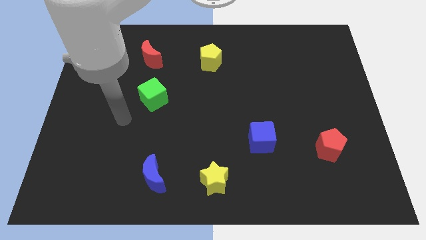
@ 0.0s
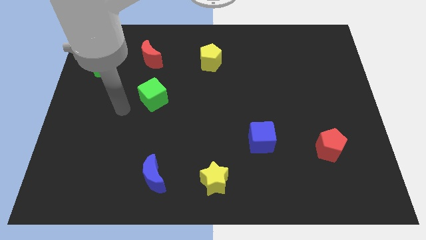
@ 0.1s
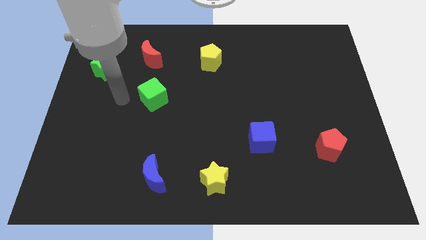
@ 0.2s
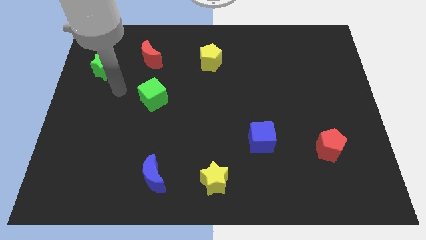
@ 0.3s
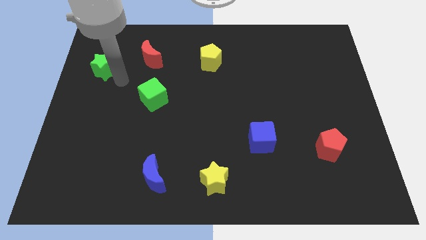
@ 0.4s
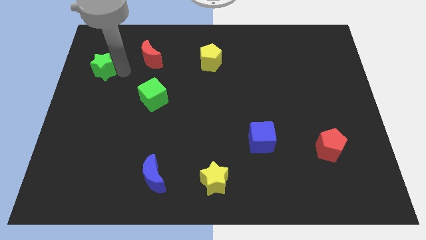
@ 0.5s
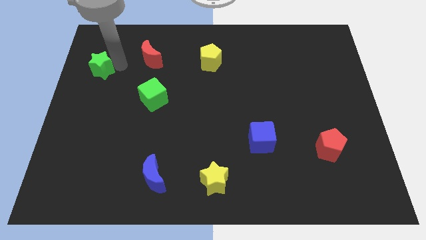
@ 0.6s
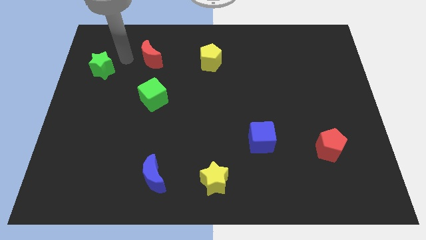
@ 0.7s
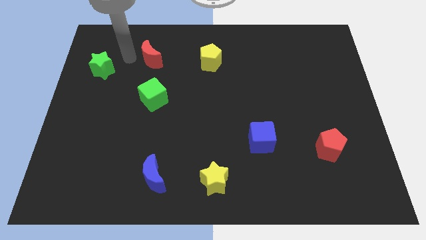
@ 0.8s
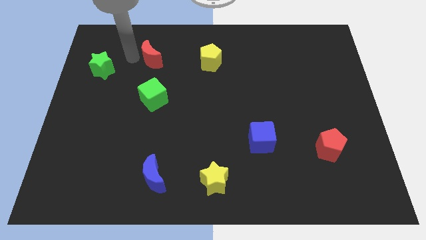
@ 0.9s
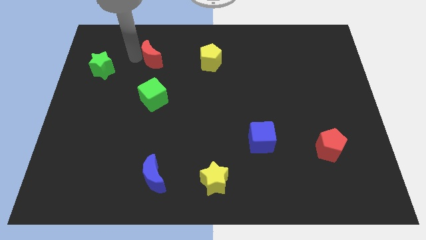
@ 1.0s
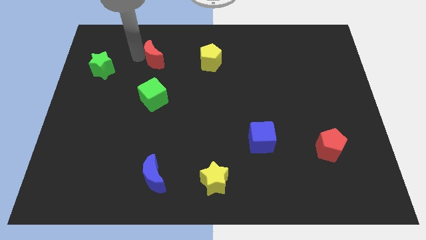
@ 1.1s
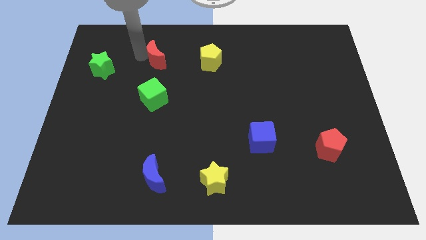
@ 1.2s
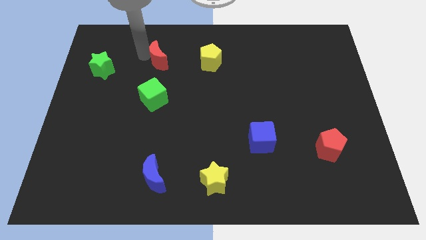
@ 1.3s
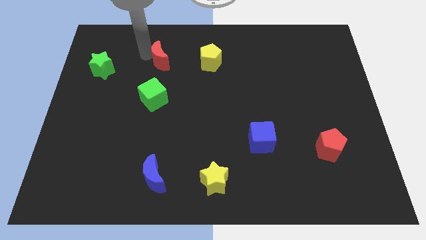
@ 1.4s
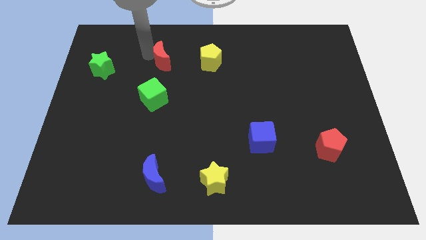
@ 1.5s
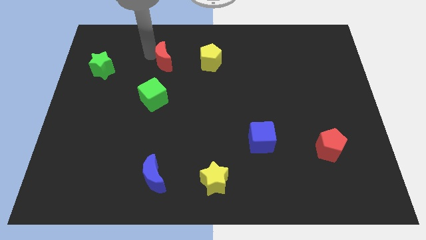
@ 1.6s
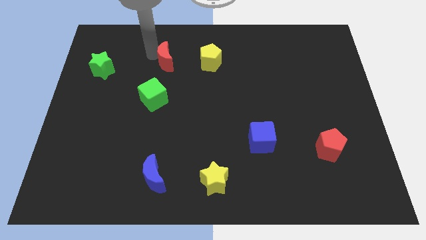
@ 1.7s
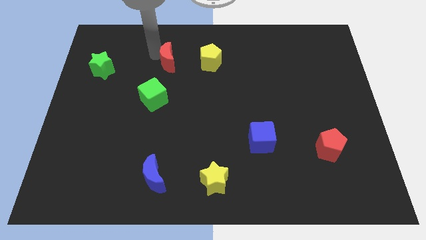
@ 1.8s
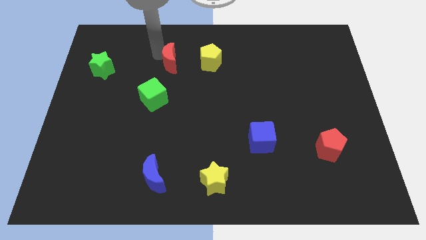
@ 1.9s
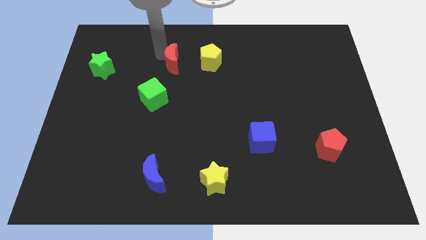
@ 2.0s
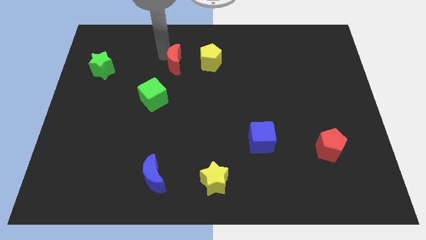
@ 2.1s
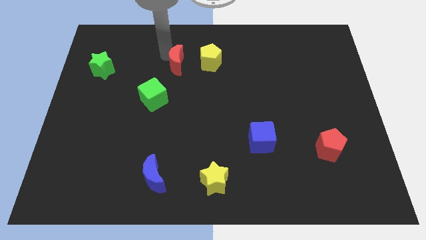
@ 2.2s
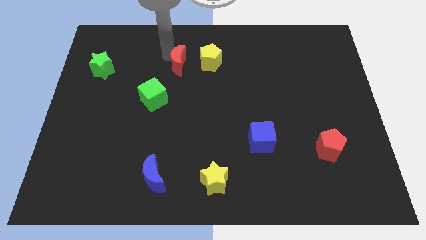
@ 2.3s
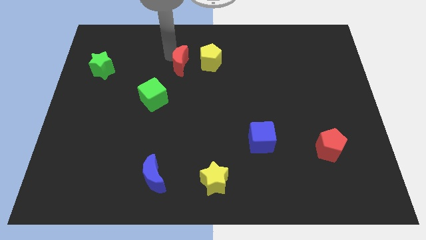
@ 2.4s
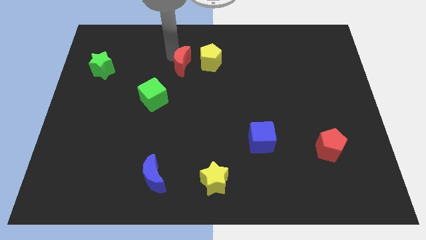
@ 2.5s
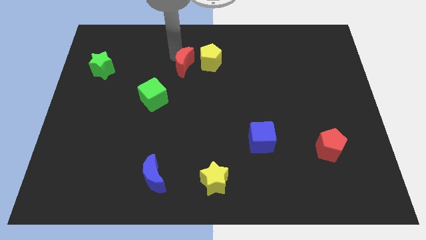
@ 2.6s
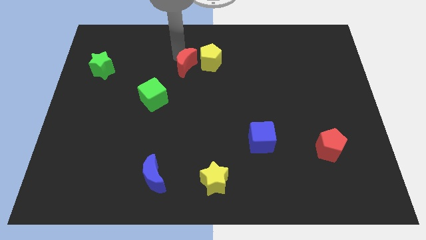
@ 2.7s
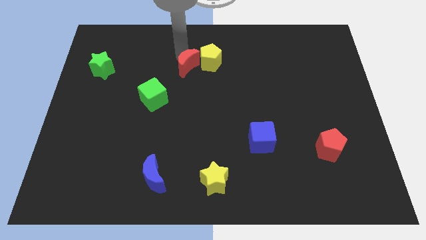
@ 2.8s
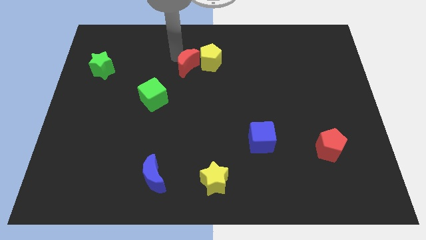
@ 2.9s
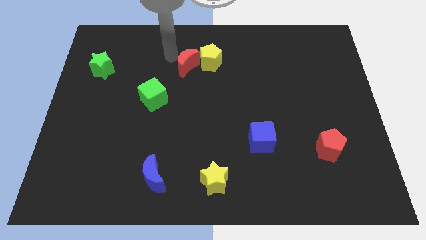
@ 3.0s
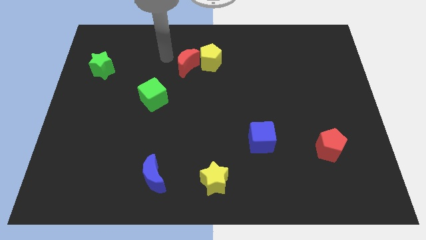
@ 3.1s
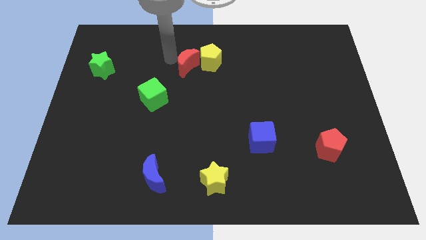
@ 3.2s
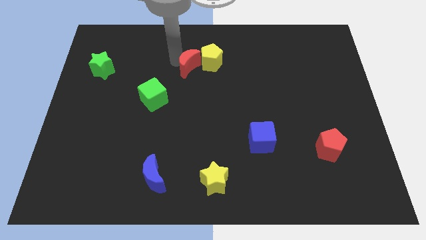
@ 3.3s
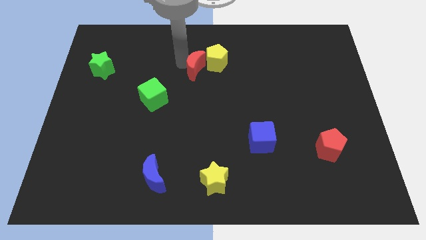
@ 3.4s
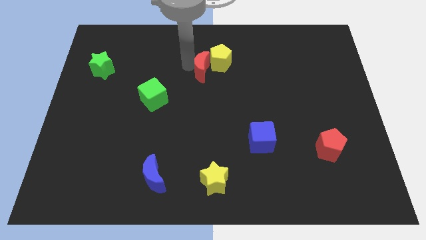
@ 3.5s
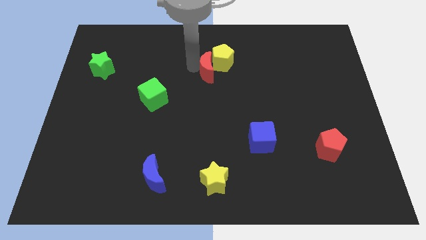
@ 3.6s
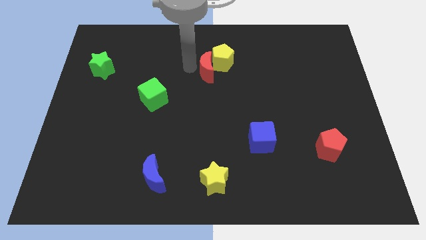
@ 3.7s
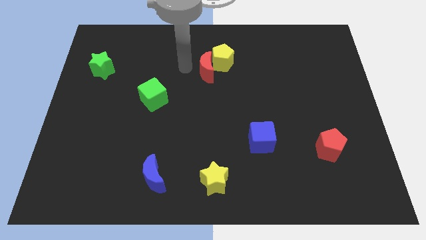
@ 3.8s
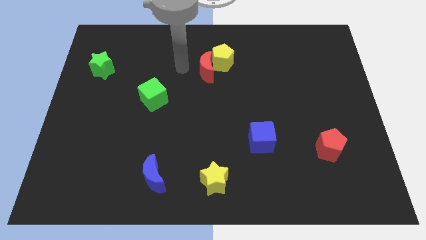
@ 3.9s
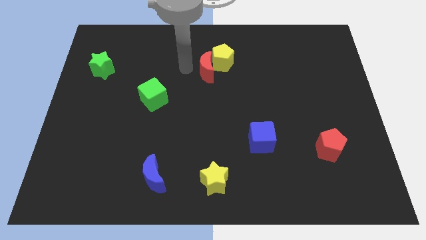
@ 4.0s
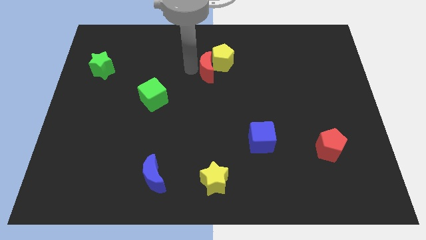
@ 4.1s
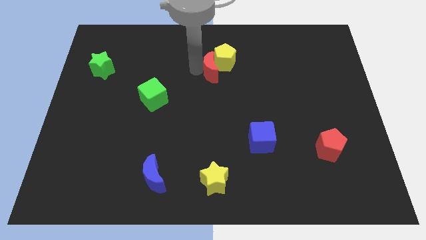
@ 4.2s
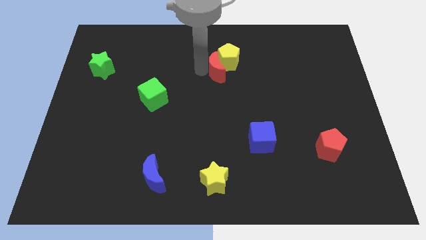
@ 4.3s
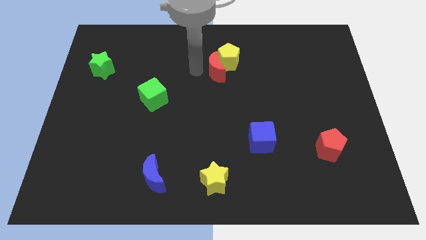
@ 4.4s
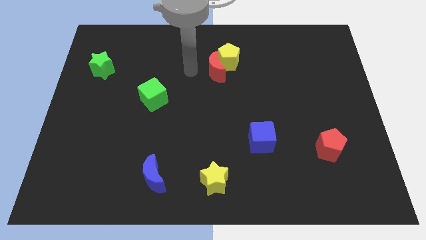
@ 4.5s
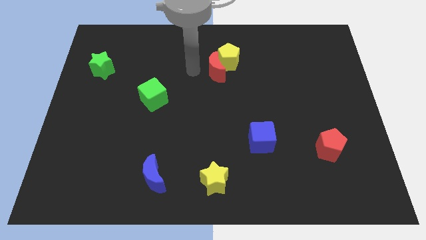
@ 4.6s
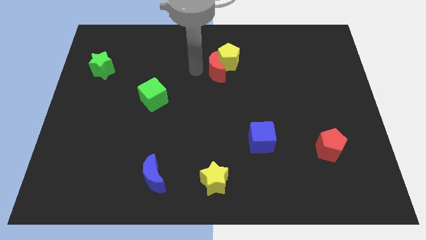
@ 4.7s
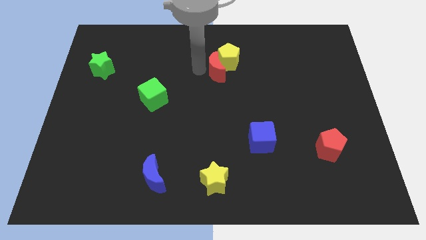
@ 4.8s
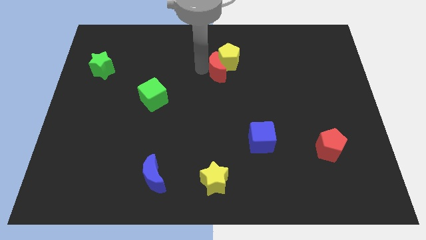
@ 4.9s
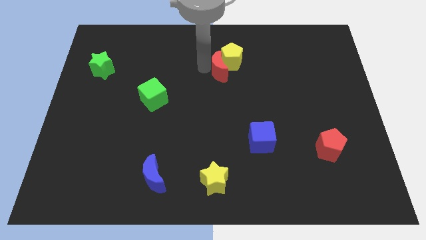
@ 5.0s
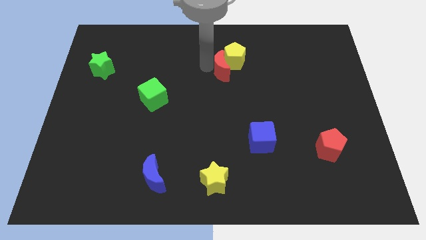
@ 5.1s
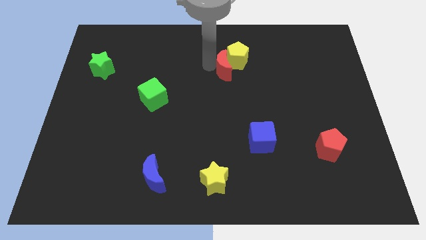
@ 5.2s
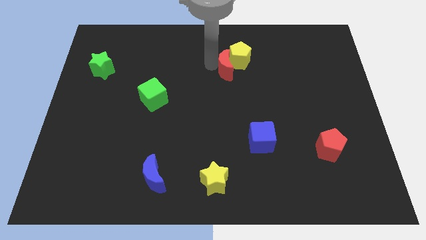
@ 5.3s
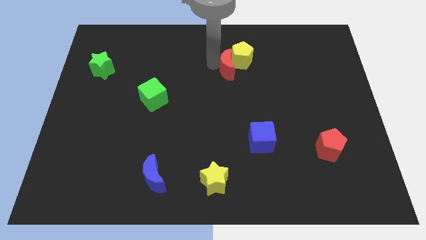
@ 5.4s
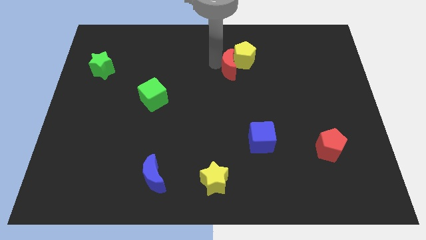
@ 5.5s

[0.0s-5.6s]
move the red moon to the right

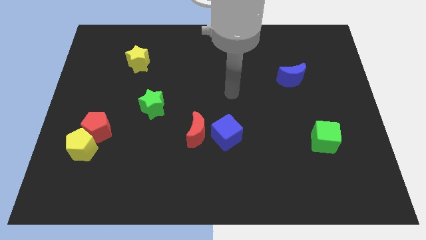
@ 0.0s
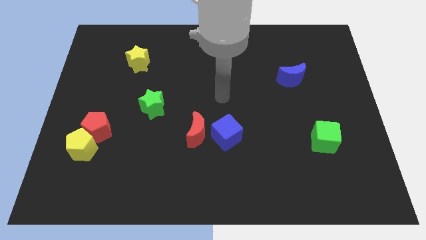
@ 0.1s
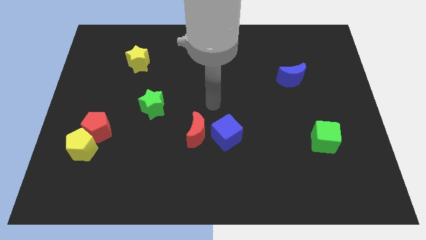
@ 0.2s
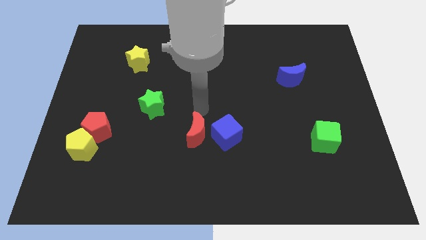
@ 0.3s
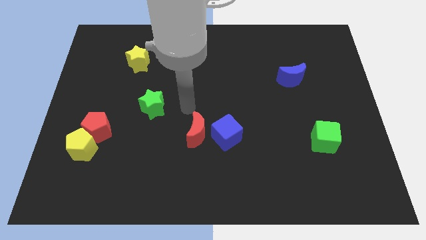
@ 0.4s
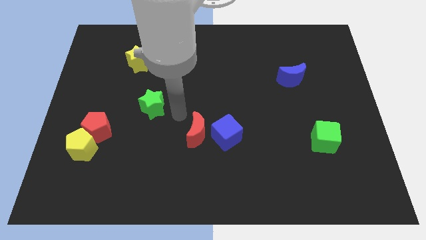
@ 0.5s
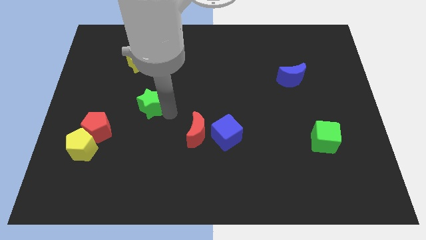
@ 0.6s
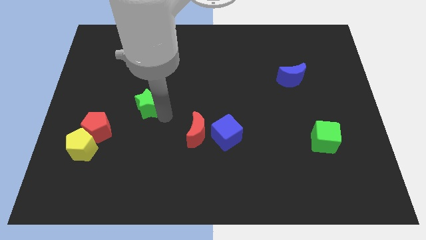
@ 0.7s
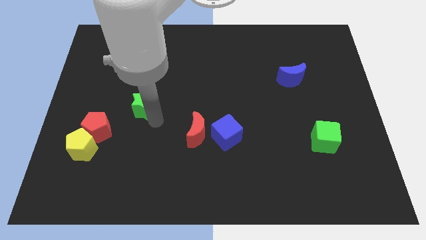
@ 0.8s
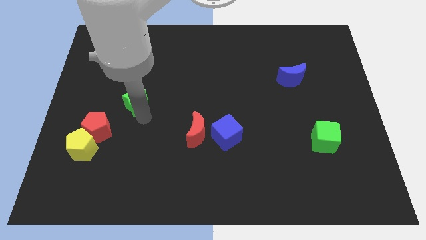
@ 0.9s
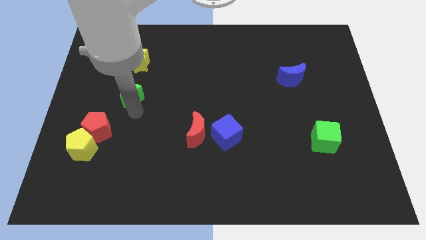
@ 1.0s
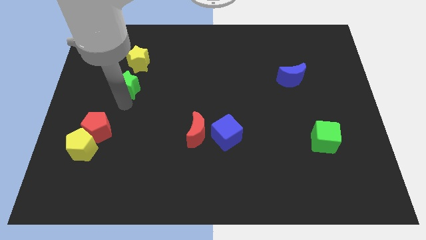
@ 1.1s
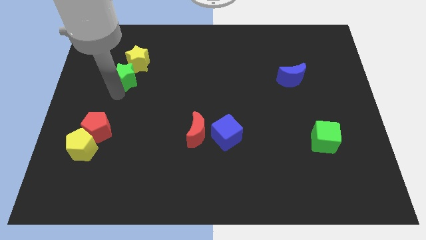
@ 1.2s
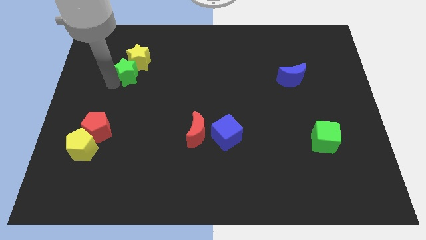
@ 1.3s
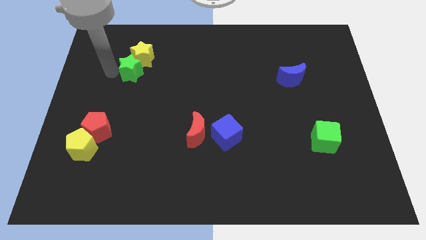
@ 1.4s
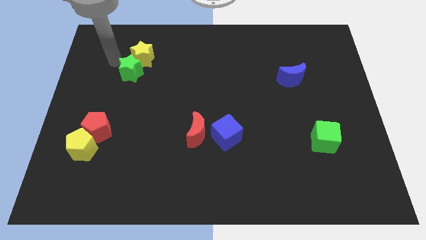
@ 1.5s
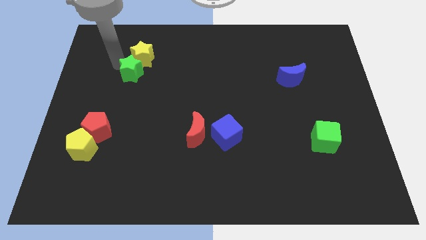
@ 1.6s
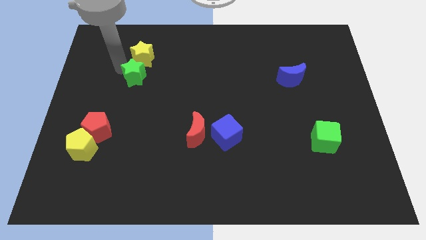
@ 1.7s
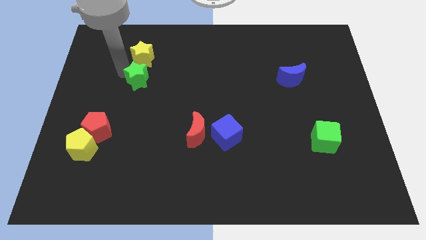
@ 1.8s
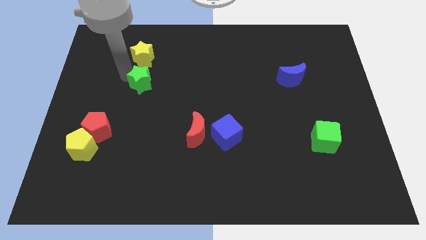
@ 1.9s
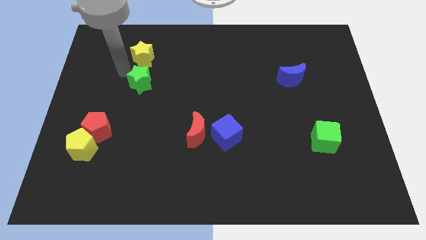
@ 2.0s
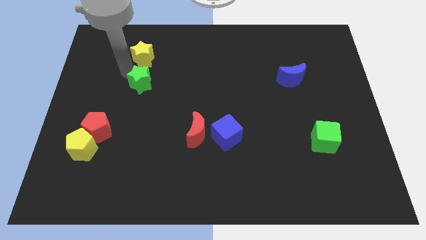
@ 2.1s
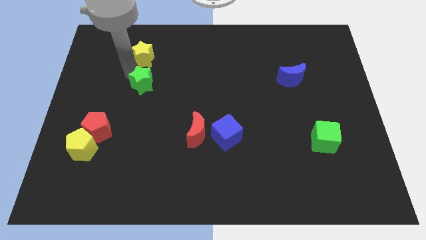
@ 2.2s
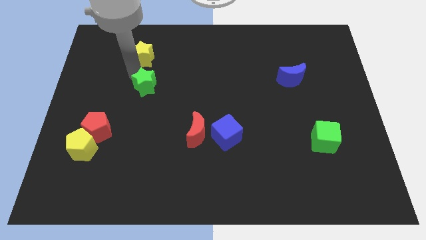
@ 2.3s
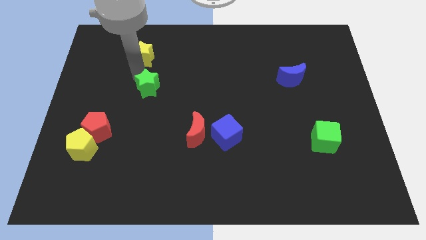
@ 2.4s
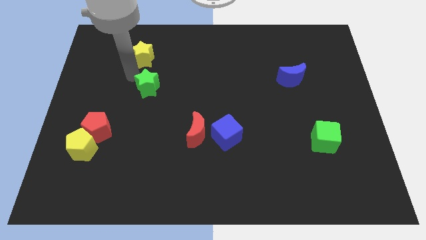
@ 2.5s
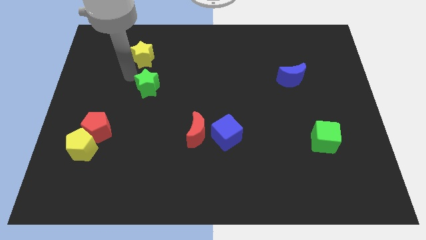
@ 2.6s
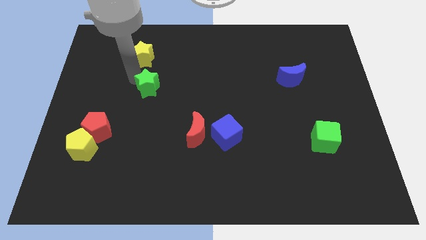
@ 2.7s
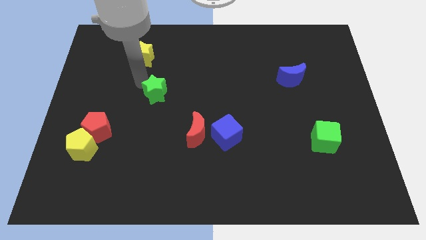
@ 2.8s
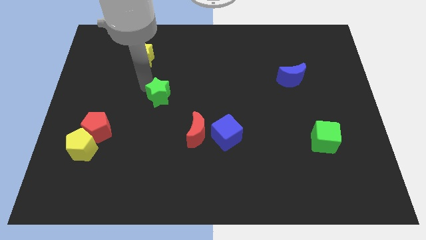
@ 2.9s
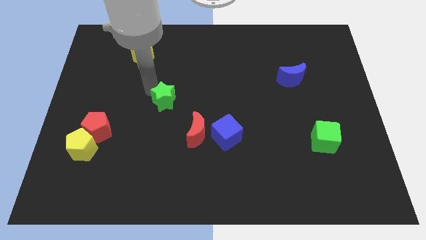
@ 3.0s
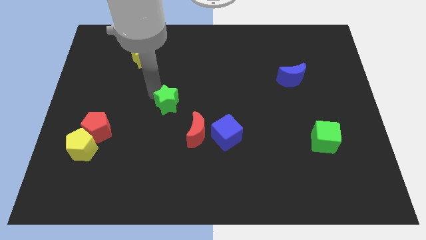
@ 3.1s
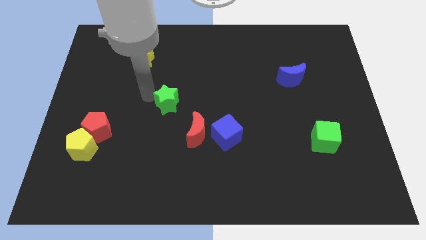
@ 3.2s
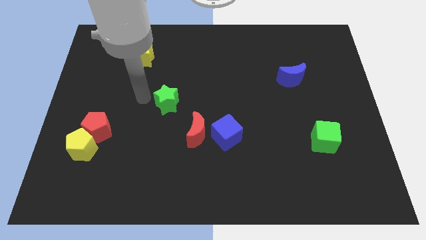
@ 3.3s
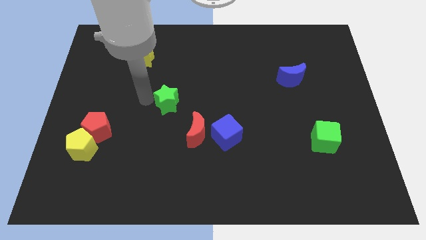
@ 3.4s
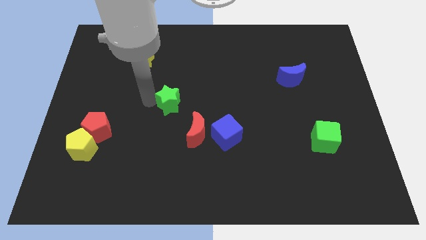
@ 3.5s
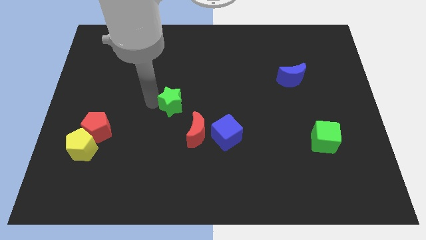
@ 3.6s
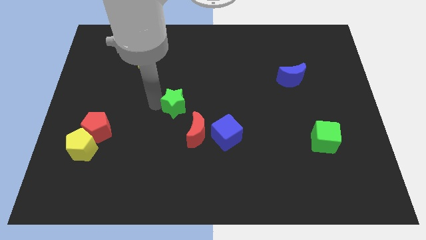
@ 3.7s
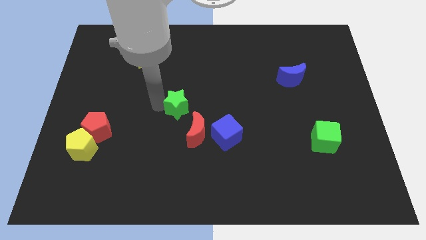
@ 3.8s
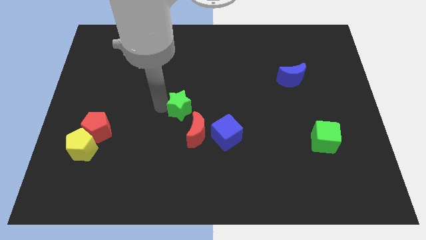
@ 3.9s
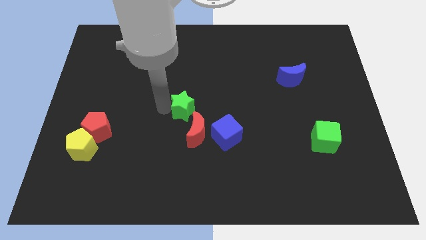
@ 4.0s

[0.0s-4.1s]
slightly move the green star right
